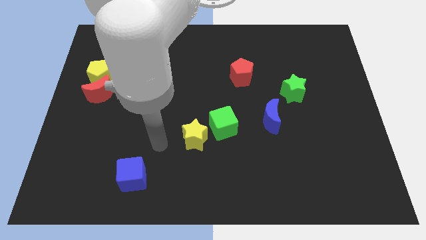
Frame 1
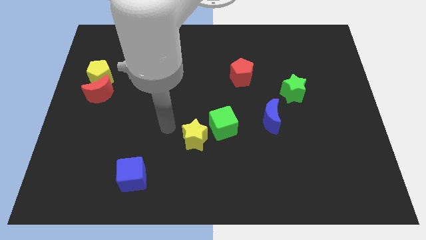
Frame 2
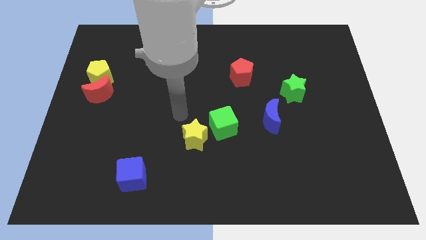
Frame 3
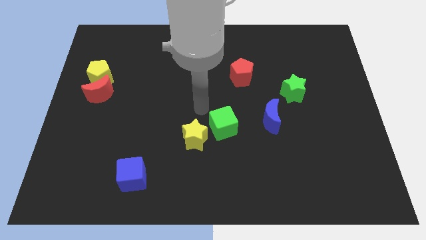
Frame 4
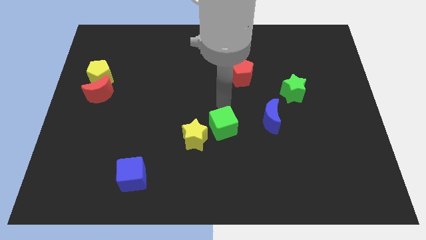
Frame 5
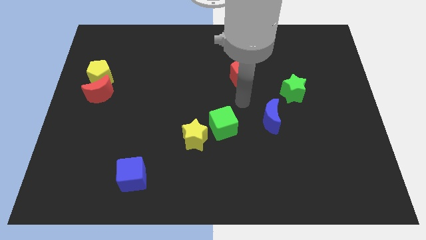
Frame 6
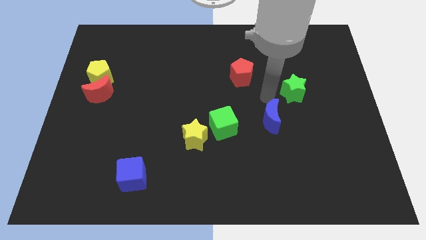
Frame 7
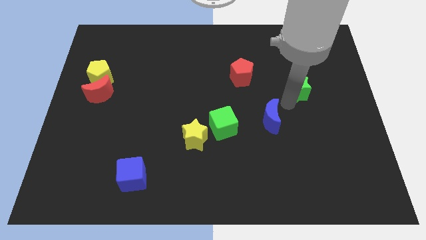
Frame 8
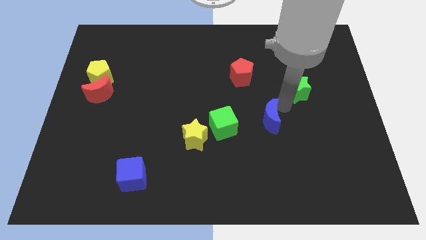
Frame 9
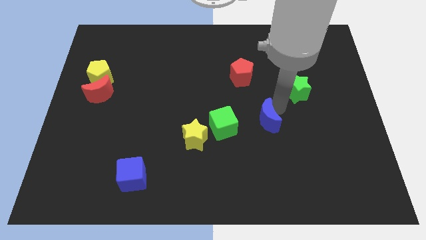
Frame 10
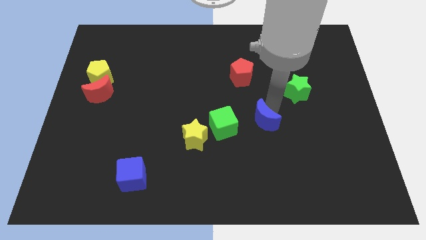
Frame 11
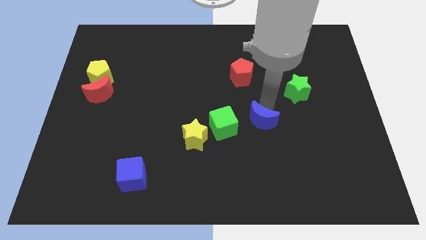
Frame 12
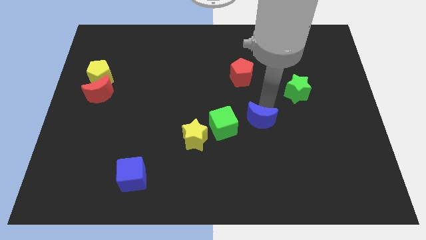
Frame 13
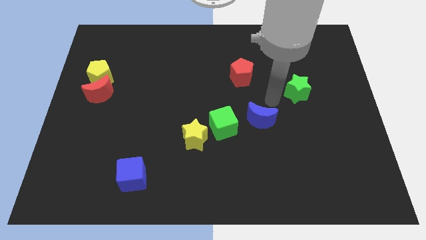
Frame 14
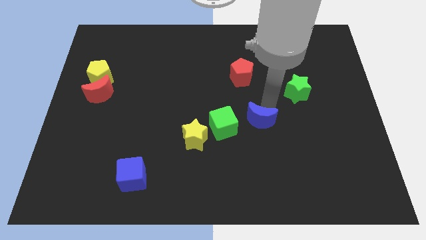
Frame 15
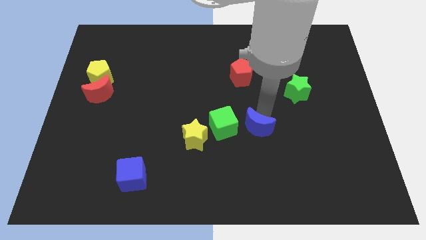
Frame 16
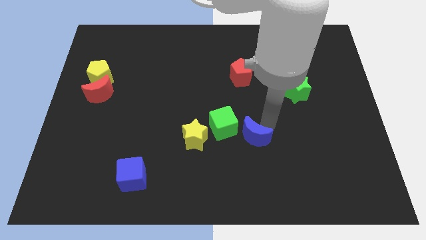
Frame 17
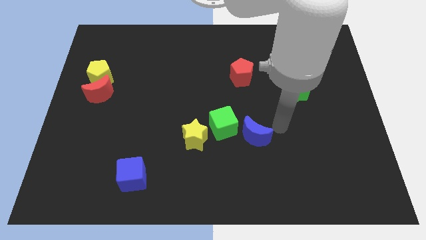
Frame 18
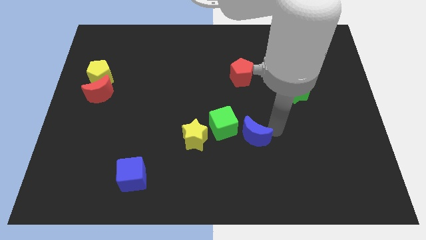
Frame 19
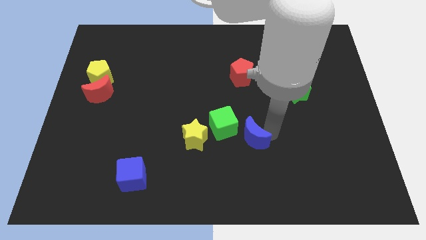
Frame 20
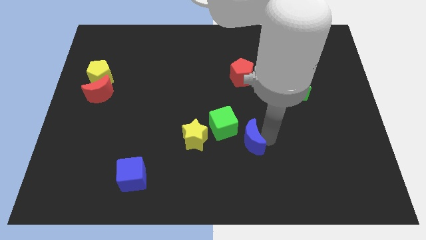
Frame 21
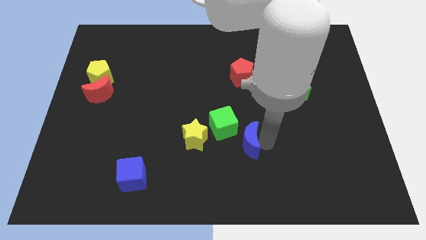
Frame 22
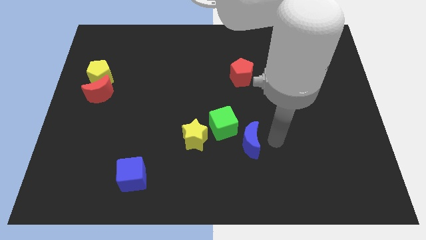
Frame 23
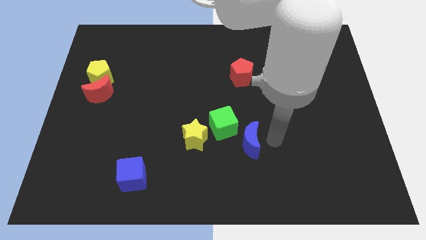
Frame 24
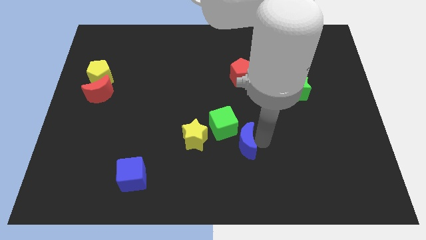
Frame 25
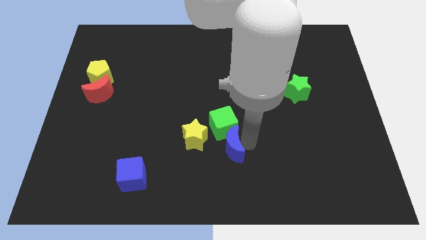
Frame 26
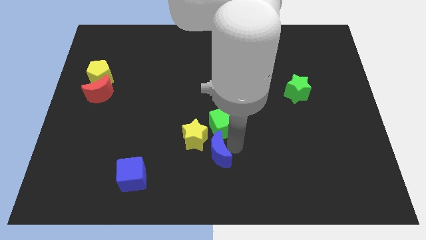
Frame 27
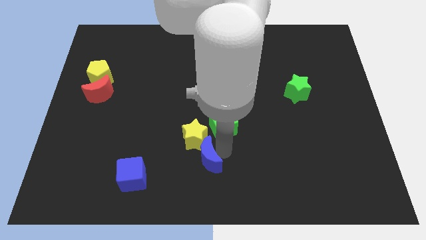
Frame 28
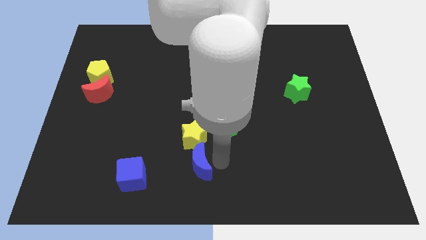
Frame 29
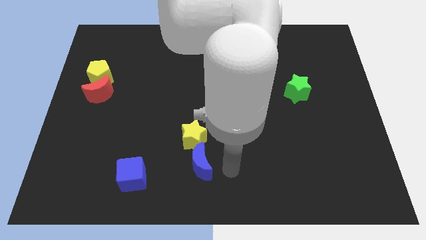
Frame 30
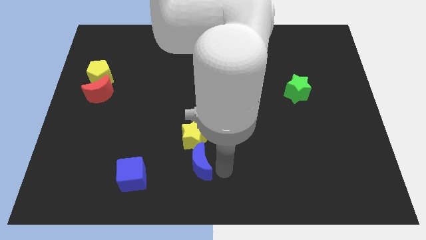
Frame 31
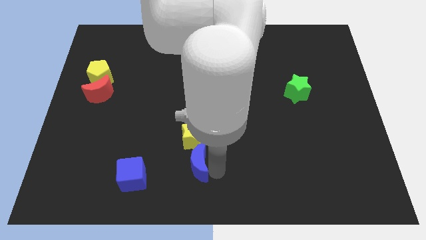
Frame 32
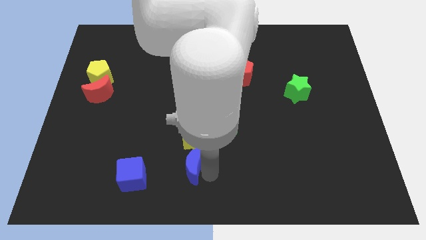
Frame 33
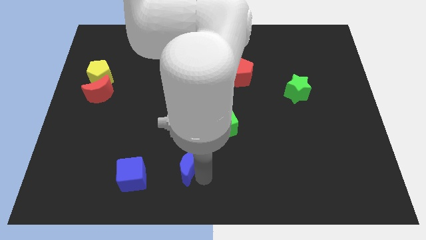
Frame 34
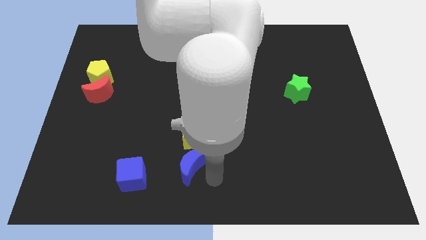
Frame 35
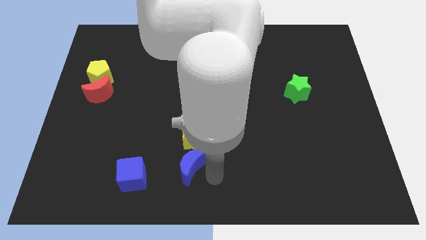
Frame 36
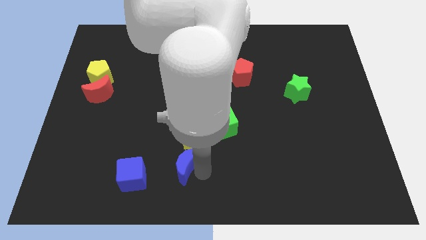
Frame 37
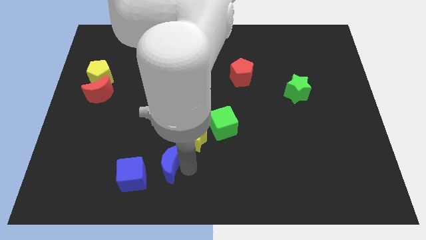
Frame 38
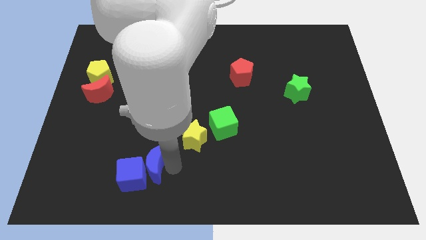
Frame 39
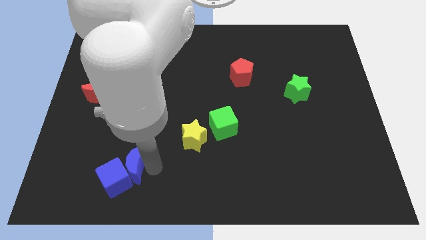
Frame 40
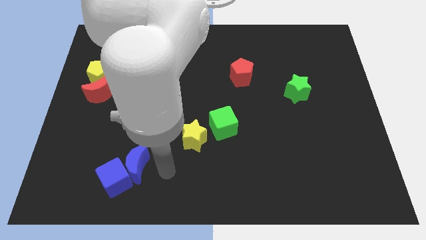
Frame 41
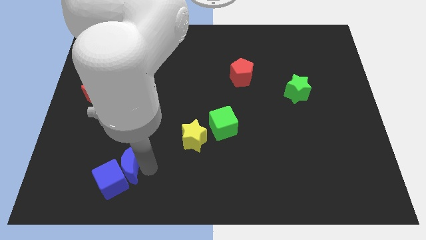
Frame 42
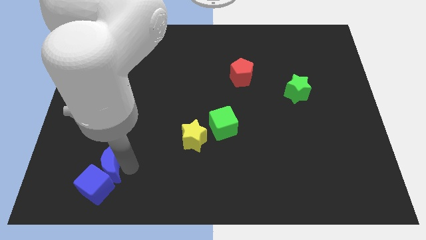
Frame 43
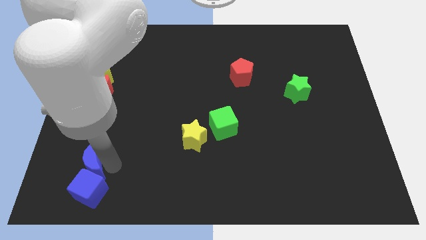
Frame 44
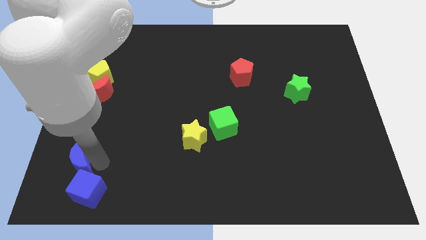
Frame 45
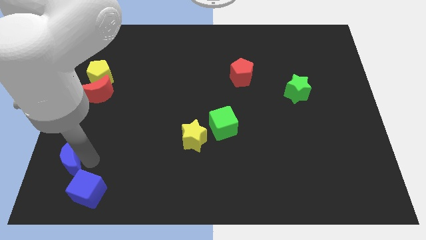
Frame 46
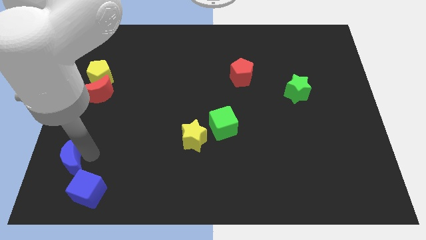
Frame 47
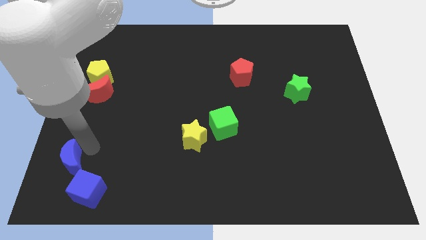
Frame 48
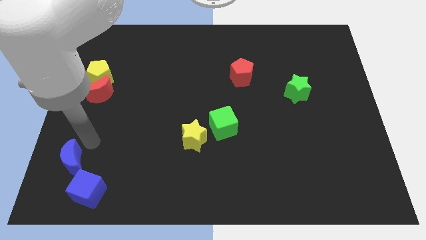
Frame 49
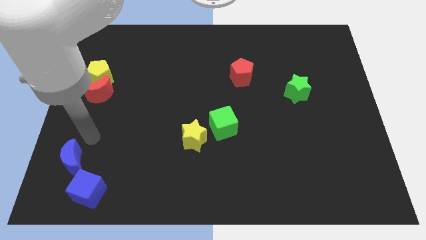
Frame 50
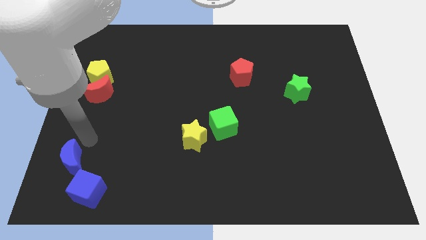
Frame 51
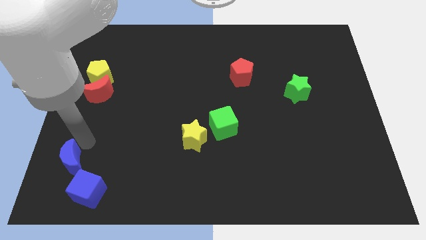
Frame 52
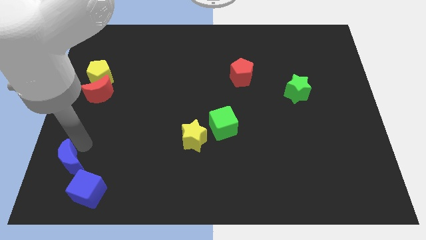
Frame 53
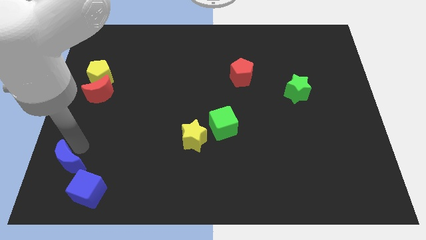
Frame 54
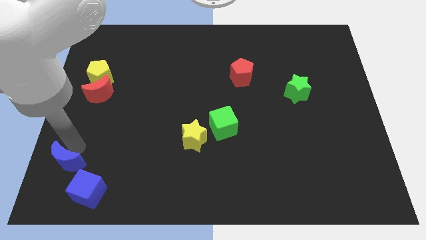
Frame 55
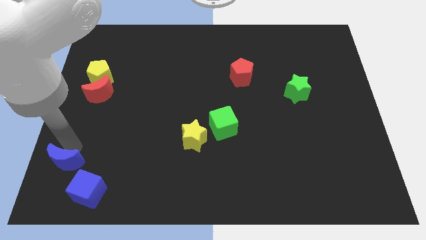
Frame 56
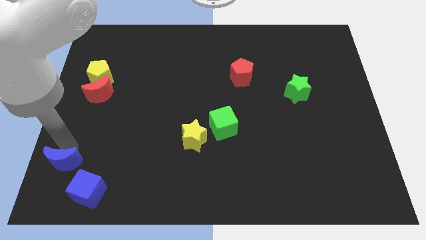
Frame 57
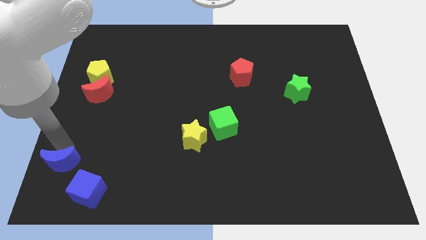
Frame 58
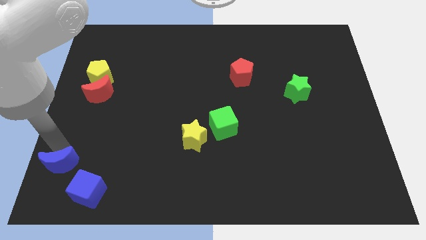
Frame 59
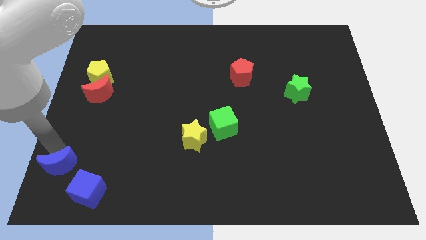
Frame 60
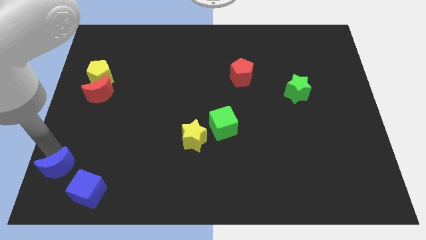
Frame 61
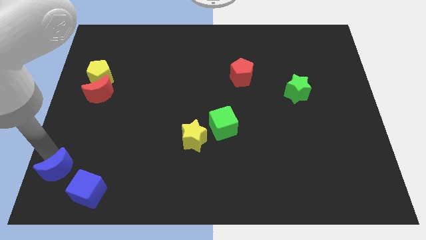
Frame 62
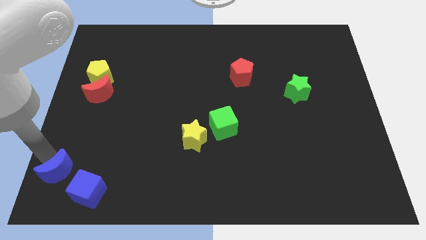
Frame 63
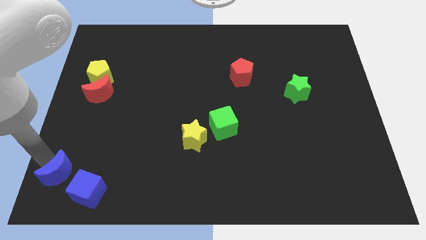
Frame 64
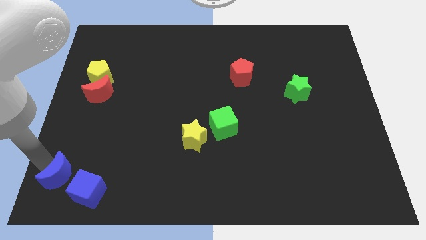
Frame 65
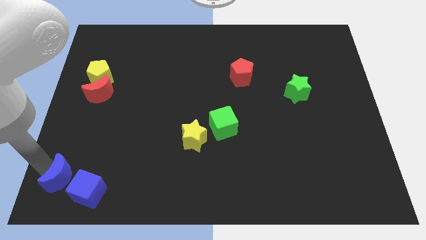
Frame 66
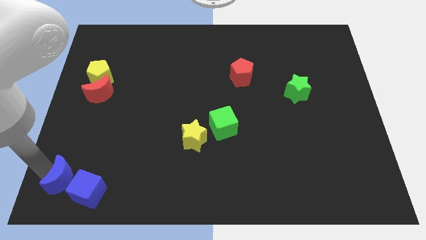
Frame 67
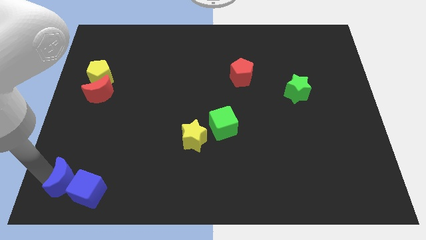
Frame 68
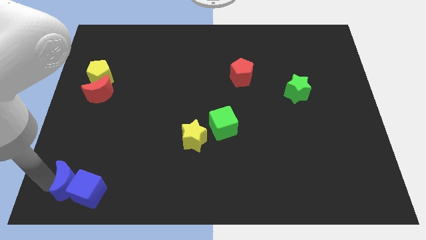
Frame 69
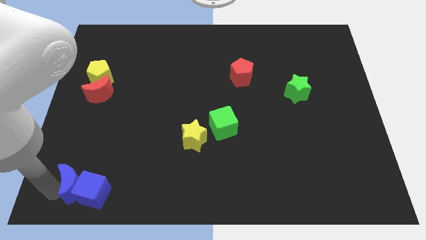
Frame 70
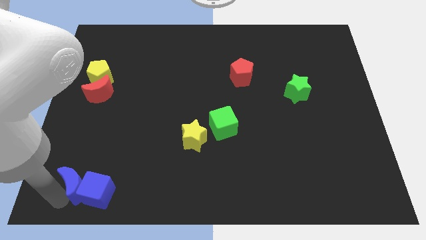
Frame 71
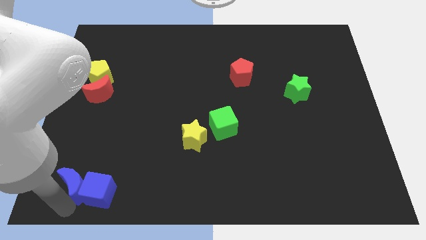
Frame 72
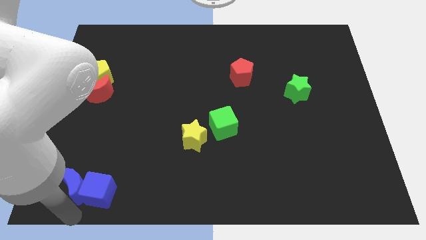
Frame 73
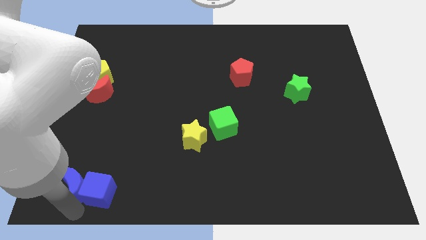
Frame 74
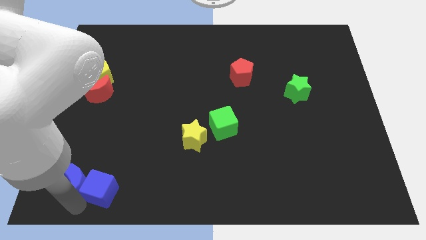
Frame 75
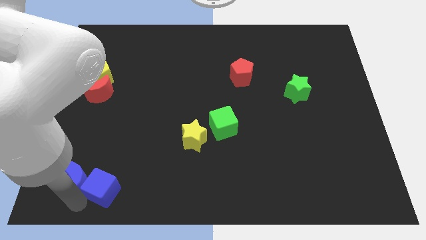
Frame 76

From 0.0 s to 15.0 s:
put the blue moon to the top left side of the blue cube

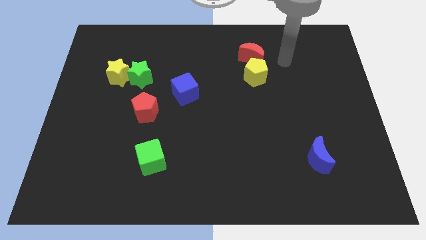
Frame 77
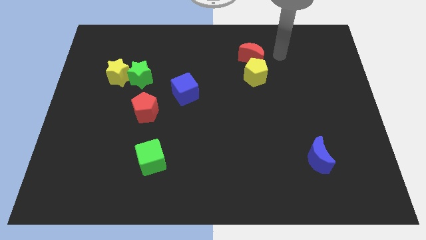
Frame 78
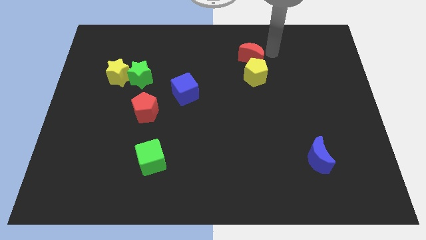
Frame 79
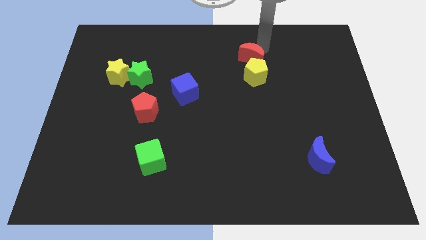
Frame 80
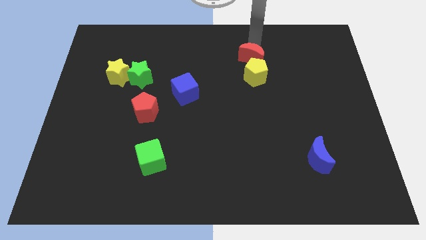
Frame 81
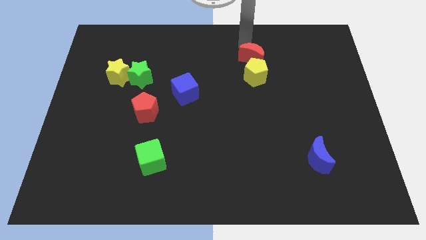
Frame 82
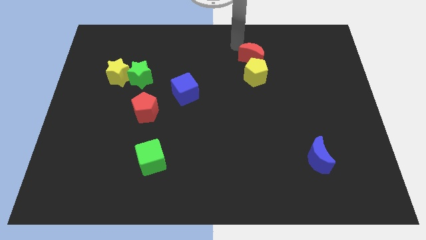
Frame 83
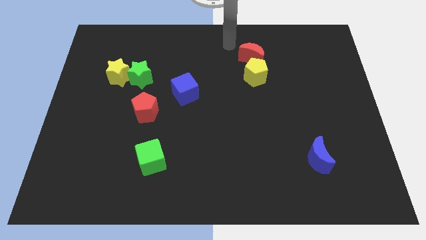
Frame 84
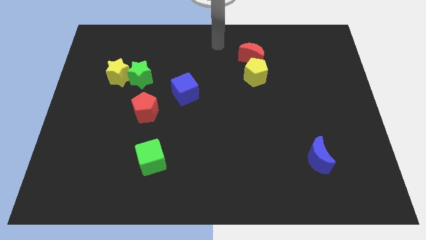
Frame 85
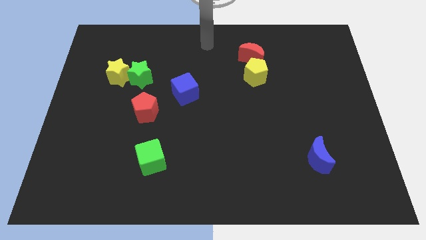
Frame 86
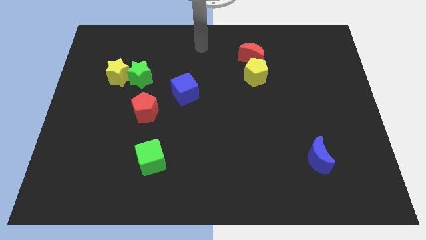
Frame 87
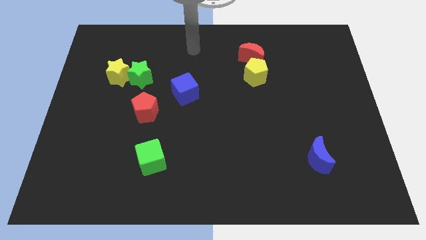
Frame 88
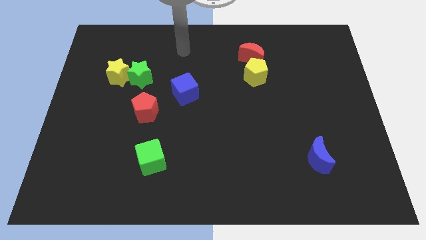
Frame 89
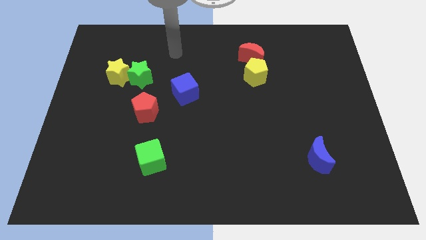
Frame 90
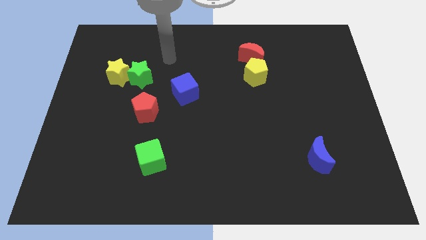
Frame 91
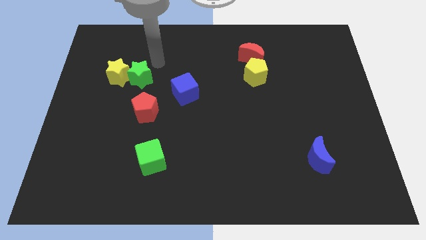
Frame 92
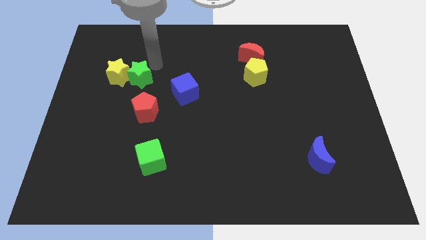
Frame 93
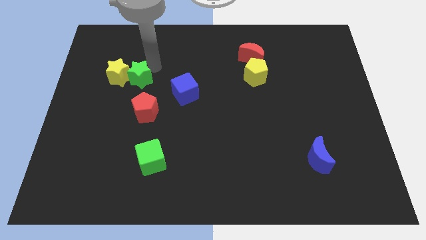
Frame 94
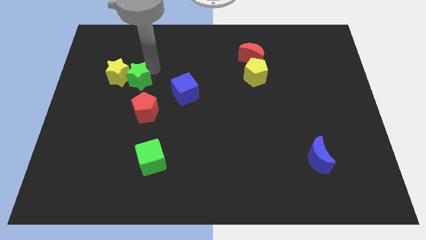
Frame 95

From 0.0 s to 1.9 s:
move the green star to the top left side of the red pentagon
